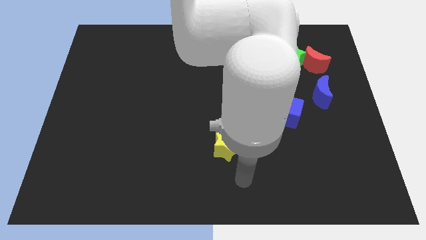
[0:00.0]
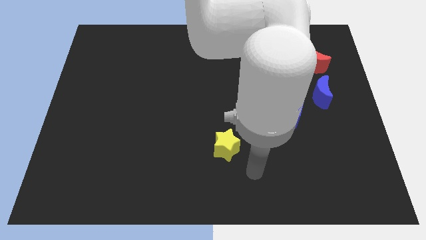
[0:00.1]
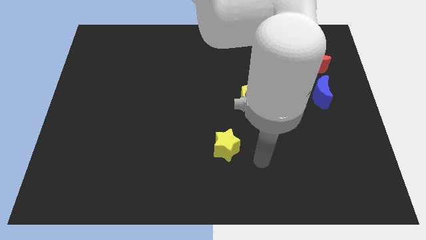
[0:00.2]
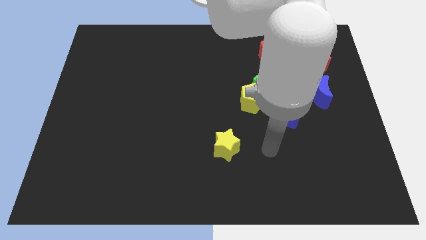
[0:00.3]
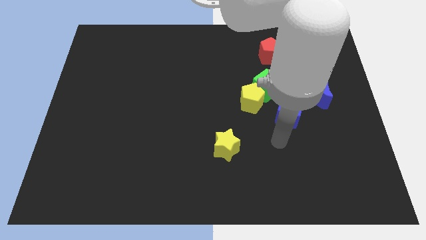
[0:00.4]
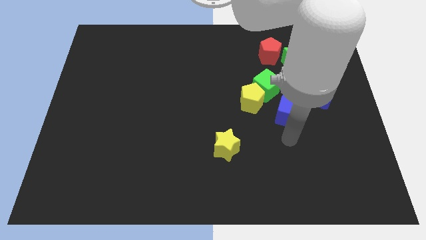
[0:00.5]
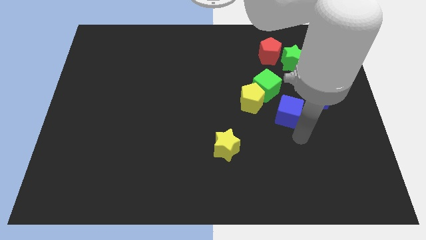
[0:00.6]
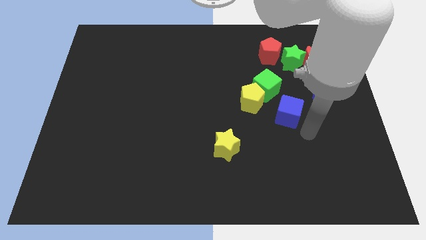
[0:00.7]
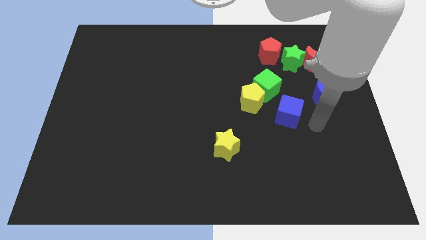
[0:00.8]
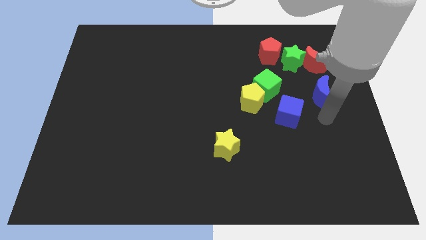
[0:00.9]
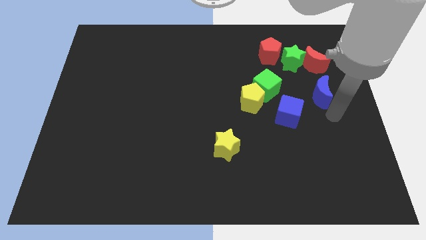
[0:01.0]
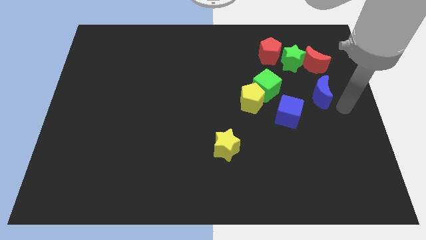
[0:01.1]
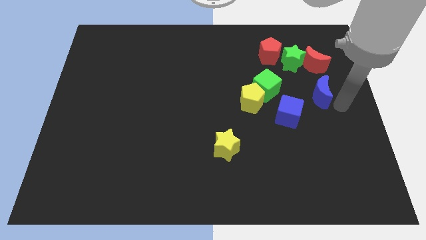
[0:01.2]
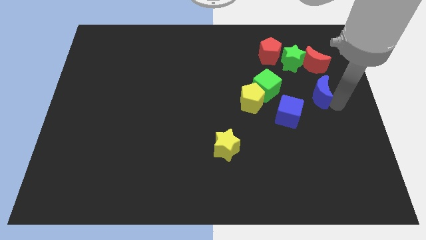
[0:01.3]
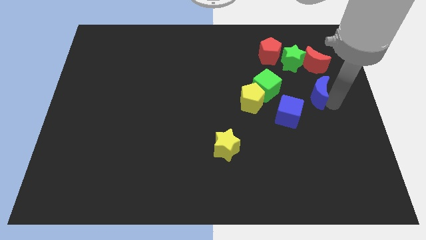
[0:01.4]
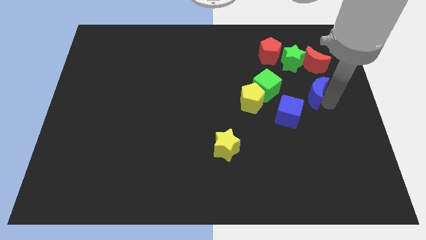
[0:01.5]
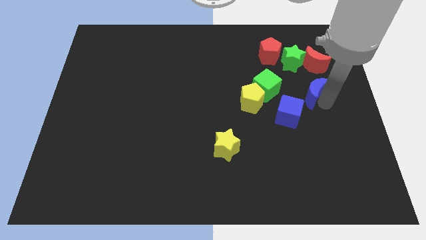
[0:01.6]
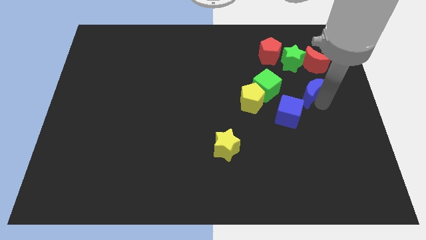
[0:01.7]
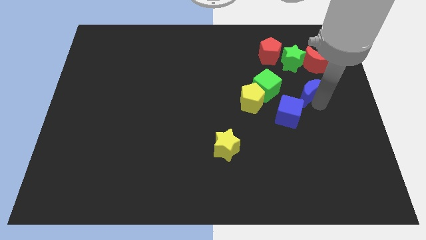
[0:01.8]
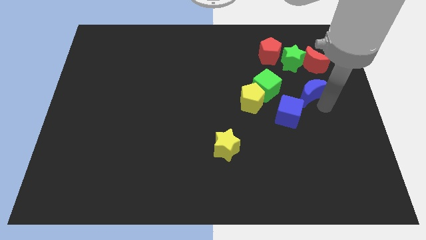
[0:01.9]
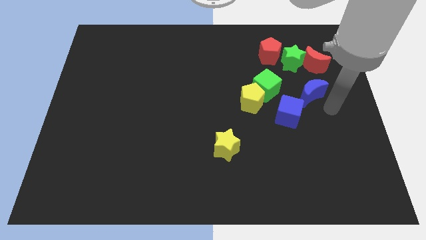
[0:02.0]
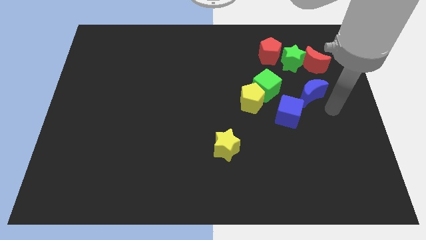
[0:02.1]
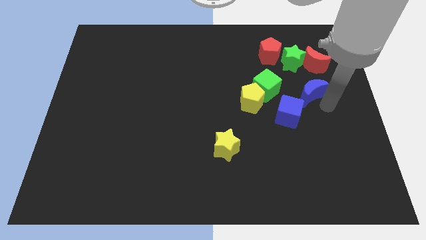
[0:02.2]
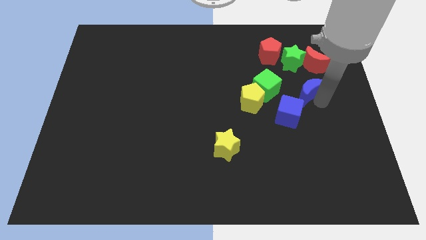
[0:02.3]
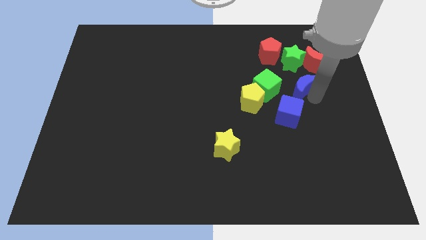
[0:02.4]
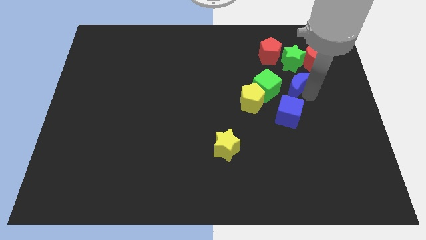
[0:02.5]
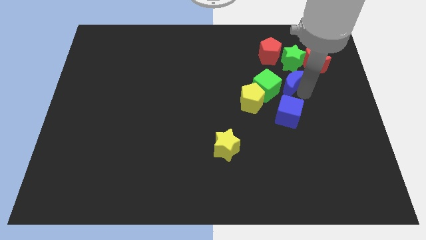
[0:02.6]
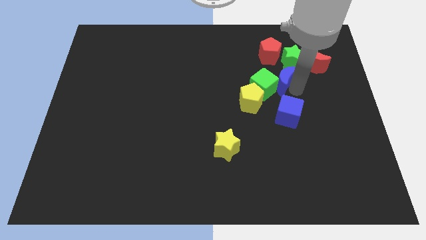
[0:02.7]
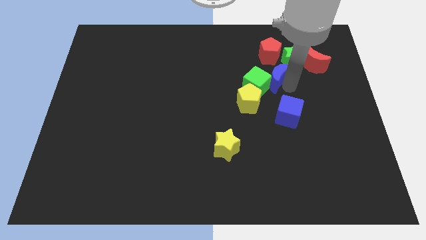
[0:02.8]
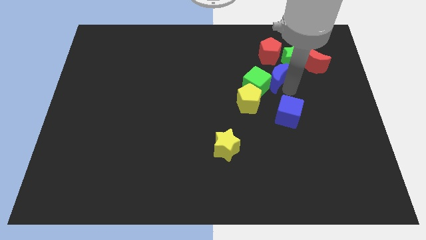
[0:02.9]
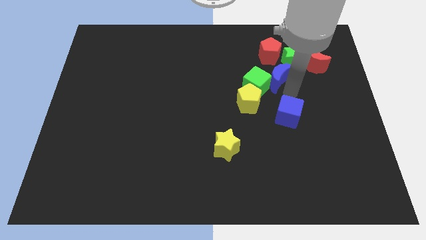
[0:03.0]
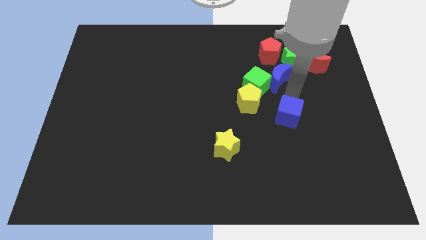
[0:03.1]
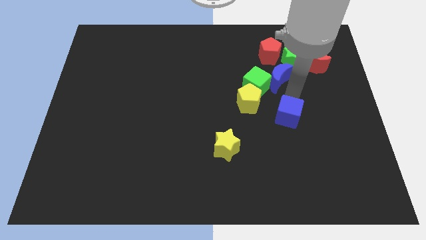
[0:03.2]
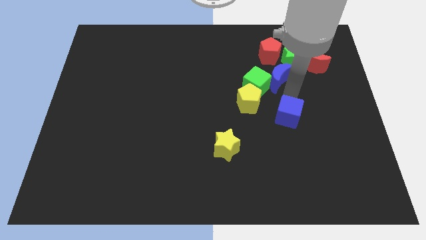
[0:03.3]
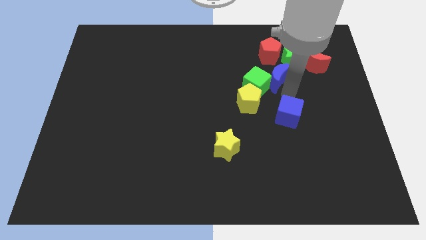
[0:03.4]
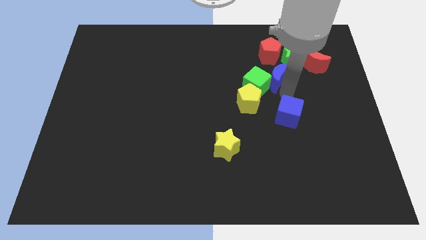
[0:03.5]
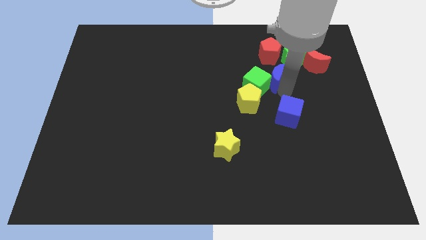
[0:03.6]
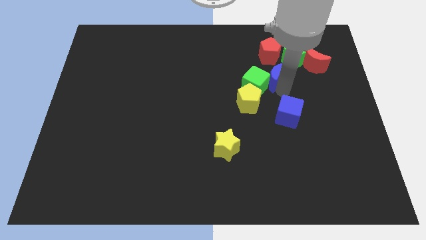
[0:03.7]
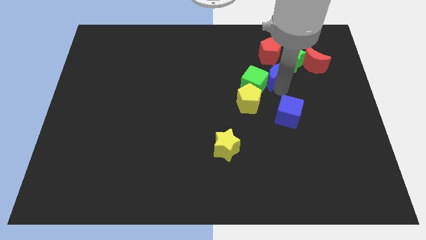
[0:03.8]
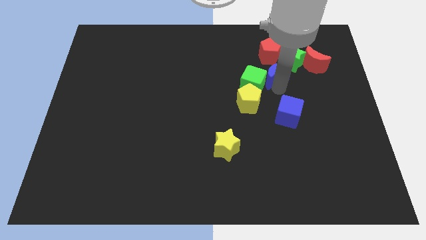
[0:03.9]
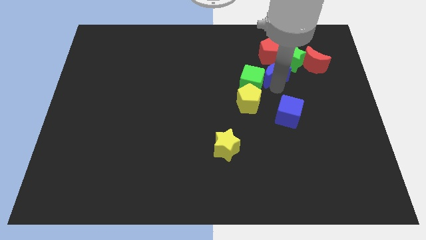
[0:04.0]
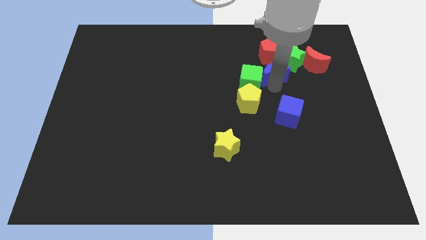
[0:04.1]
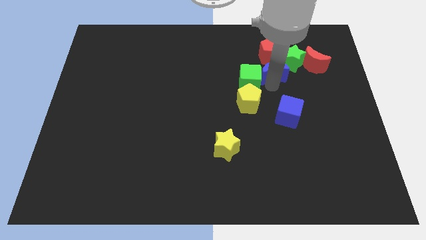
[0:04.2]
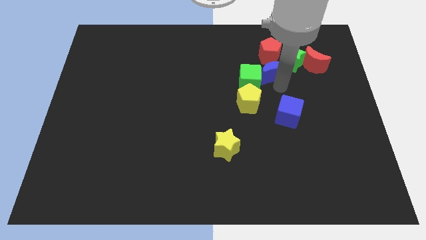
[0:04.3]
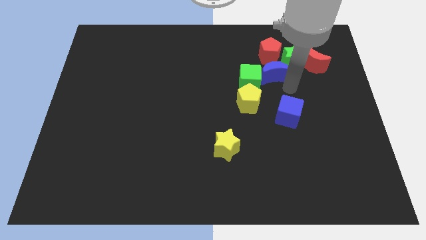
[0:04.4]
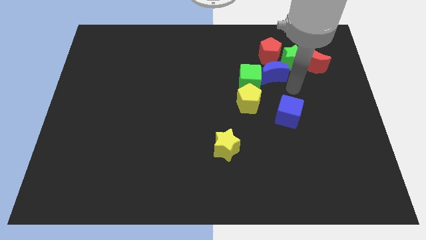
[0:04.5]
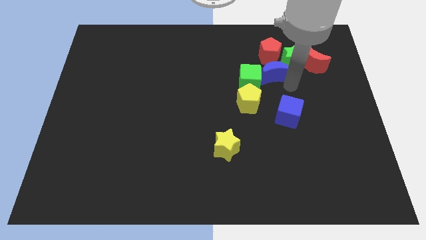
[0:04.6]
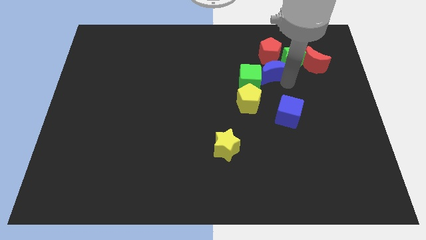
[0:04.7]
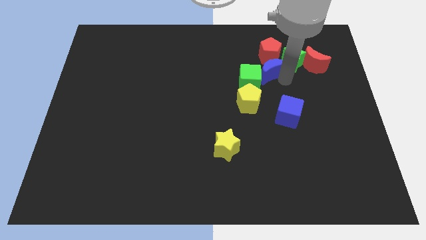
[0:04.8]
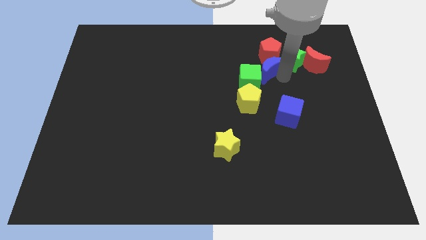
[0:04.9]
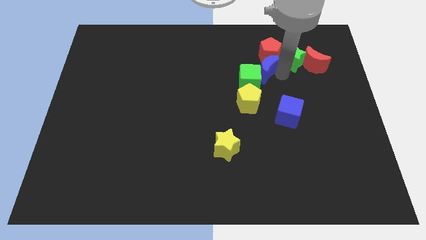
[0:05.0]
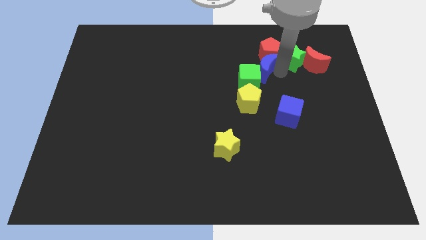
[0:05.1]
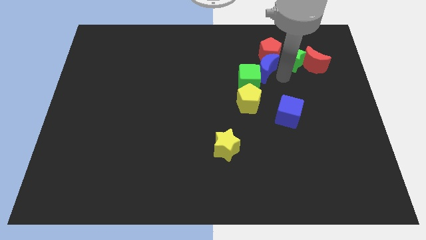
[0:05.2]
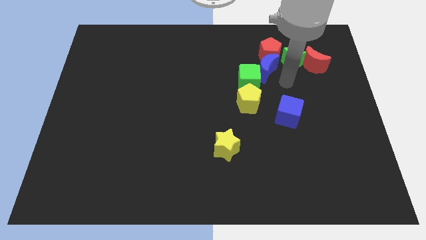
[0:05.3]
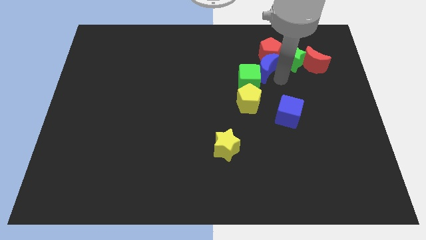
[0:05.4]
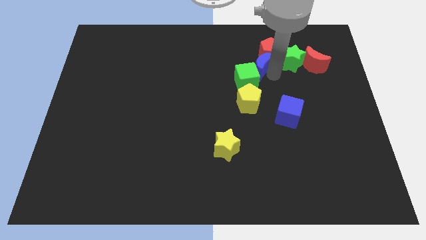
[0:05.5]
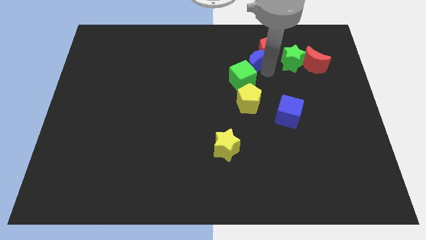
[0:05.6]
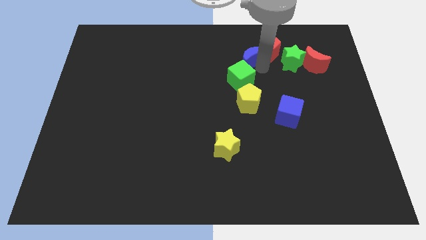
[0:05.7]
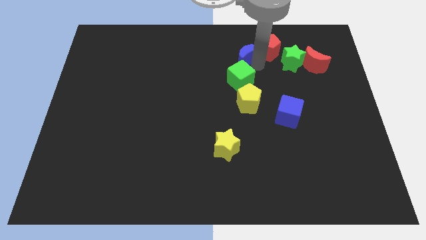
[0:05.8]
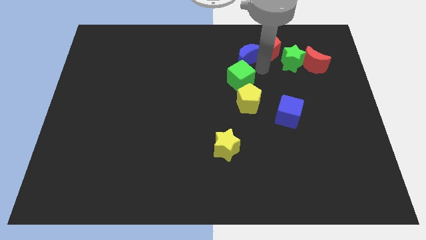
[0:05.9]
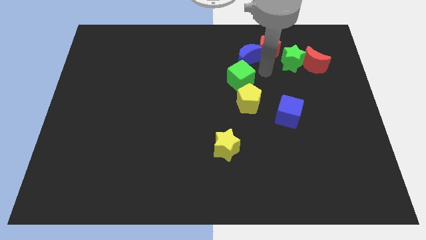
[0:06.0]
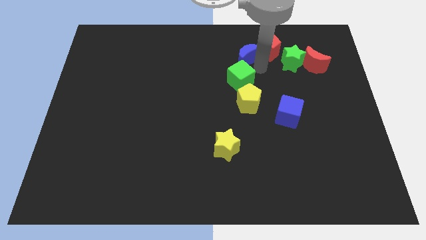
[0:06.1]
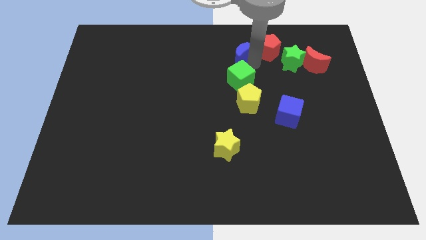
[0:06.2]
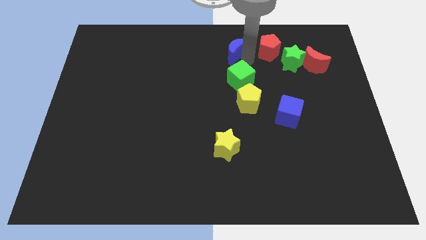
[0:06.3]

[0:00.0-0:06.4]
move the blue moon to the towards your base
